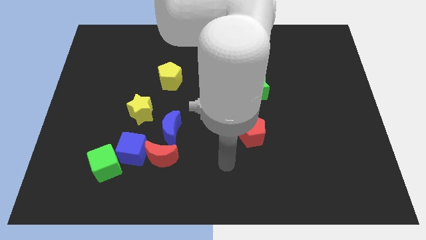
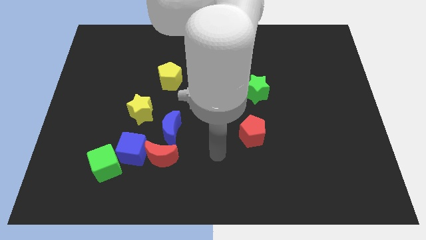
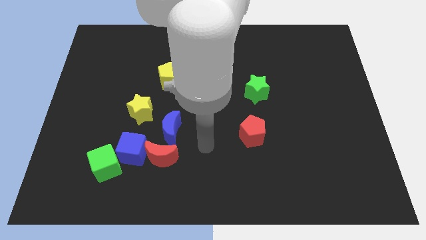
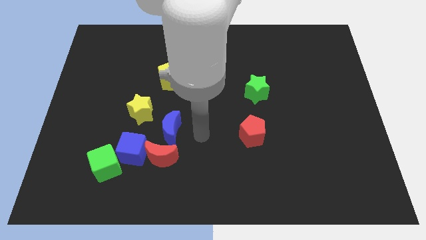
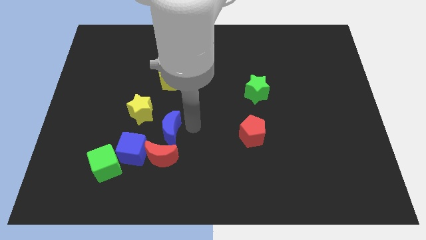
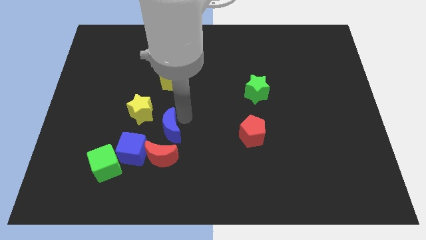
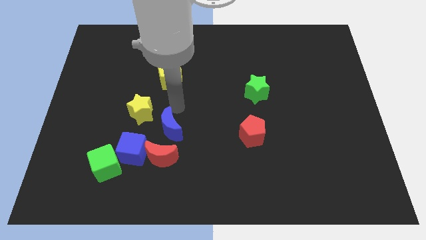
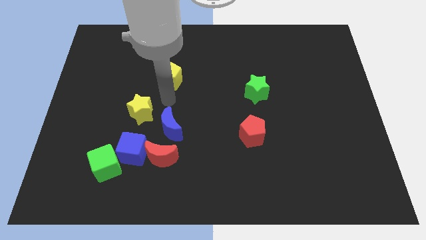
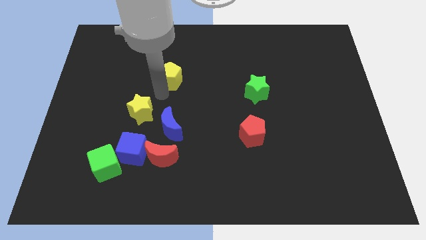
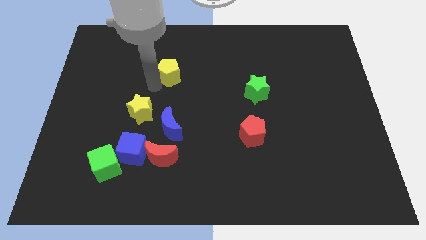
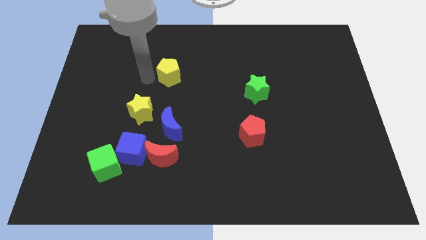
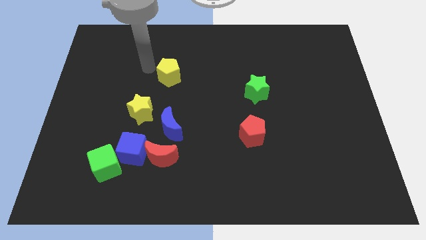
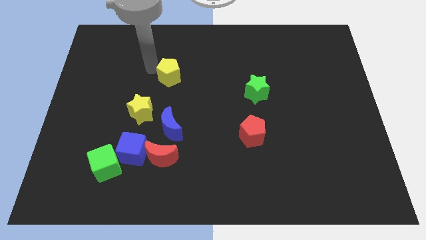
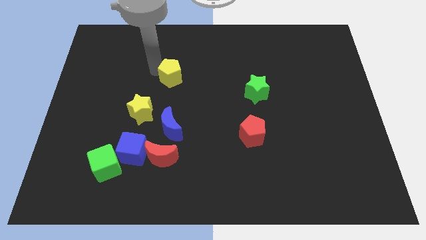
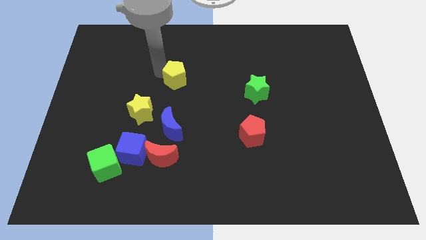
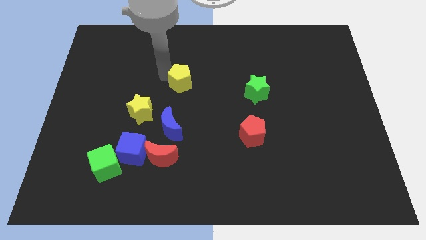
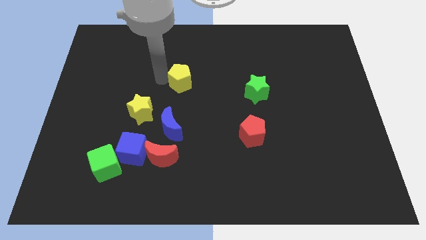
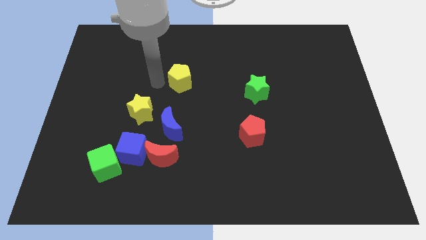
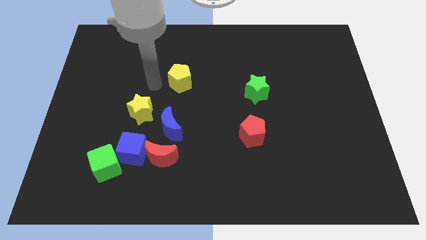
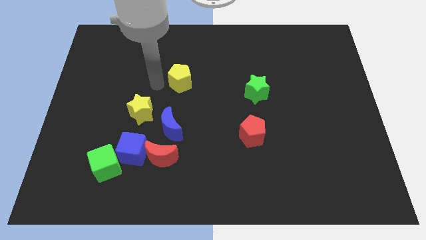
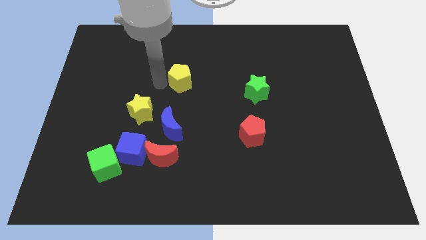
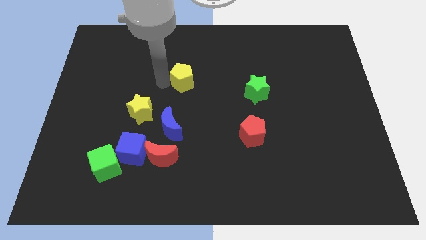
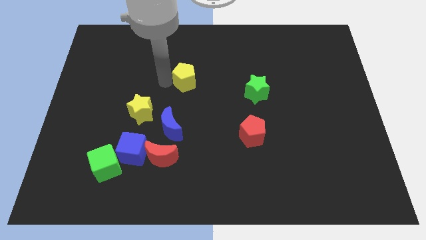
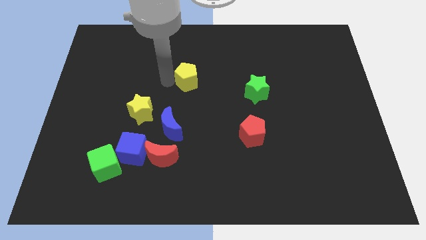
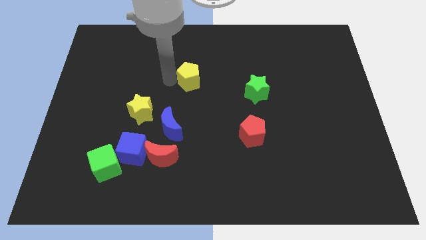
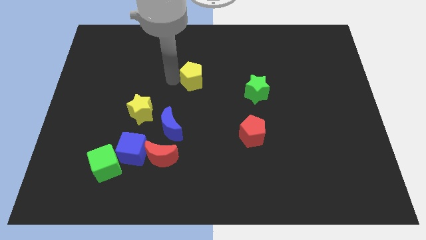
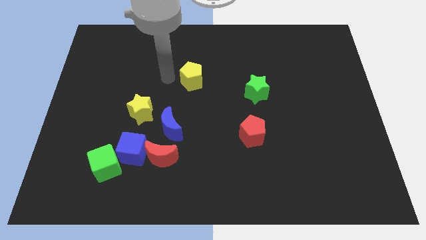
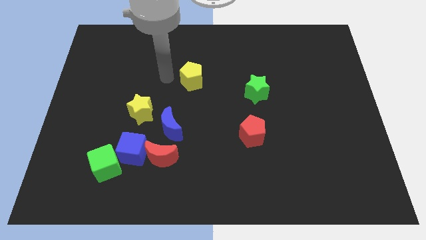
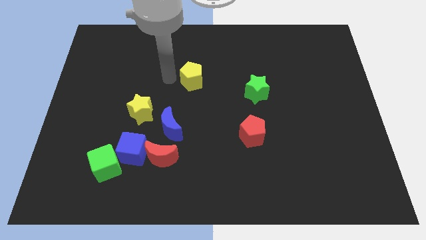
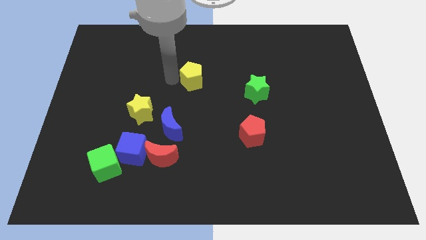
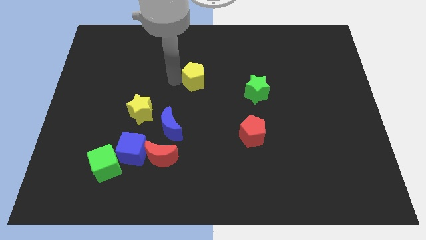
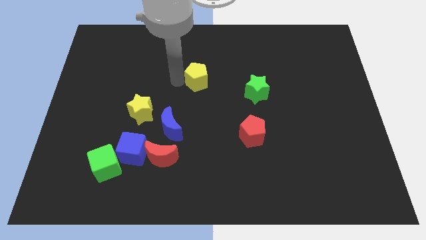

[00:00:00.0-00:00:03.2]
slightly move the yellow pentagon to the right

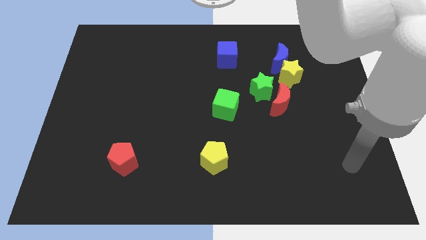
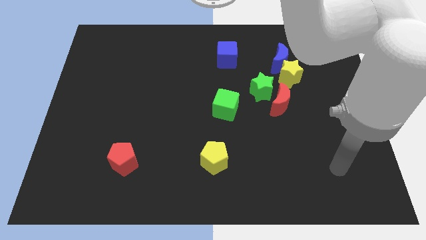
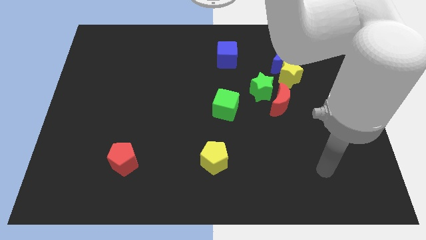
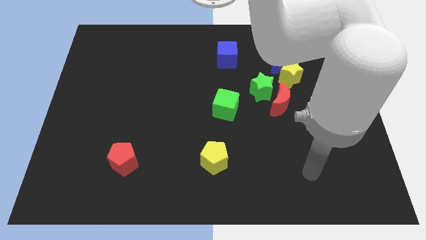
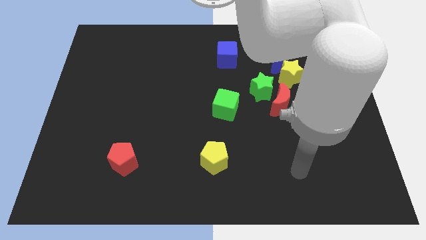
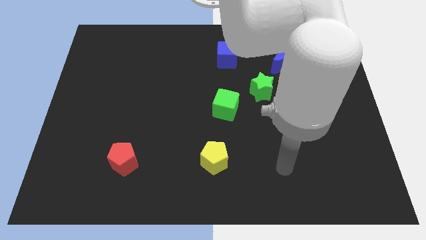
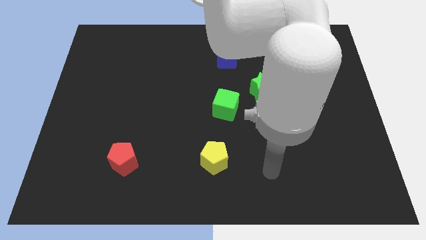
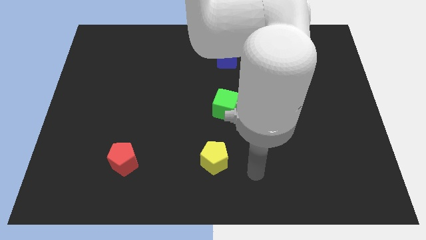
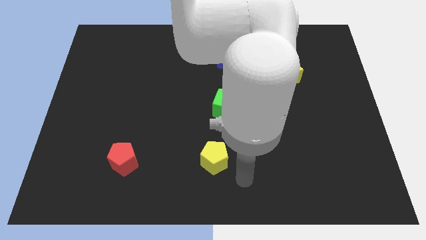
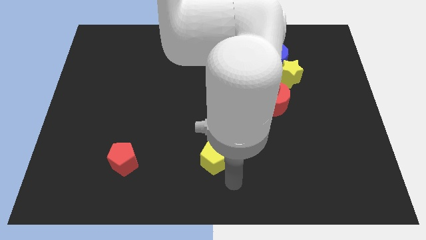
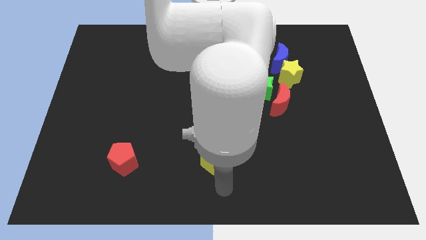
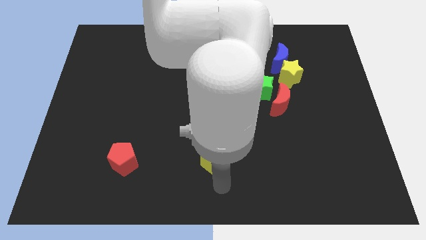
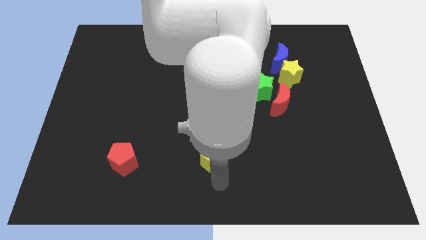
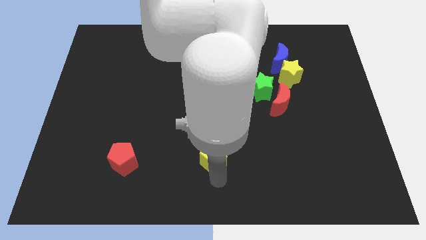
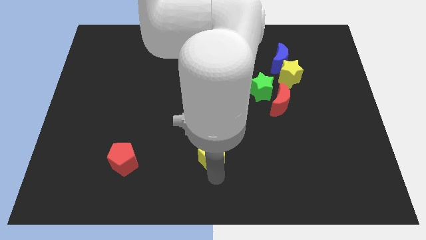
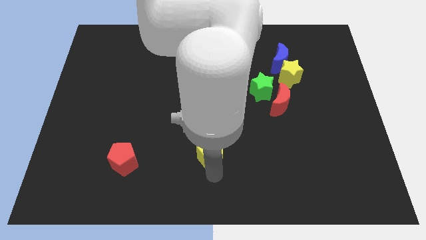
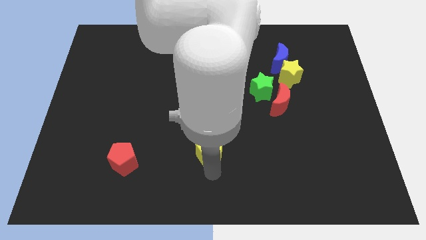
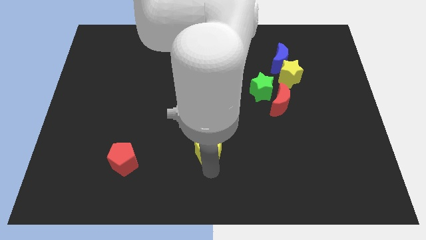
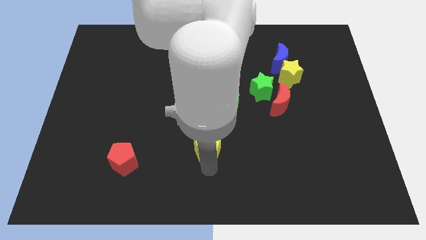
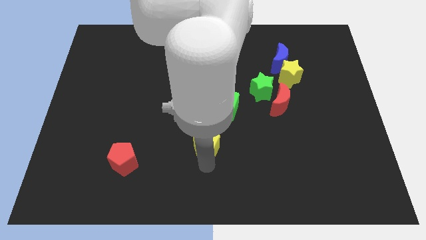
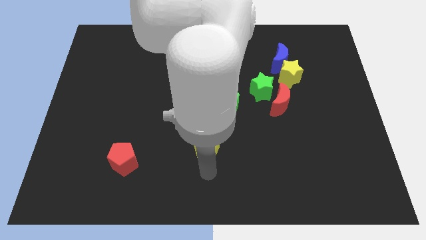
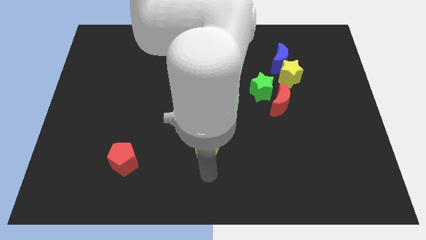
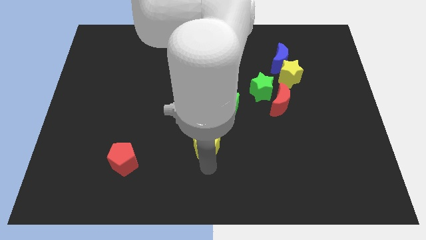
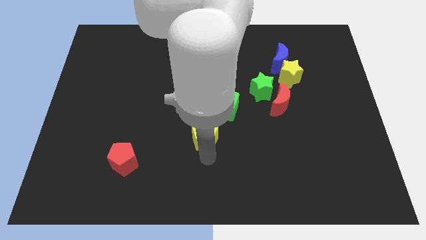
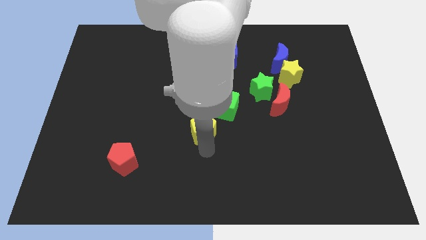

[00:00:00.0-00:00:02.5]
slide the yellow pentagon somewhat upwards

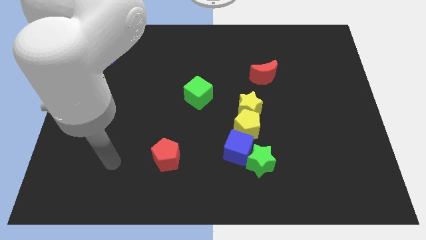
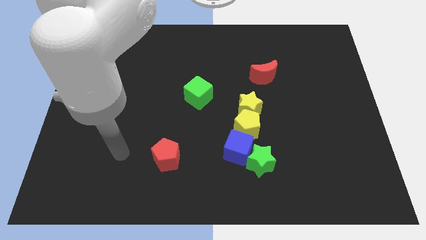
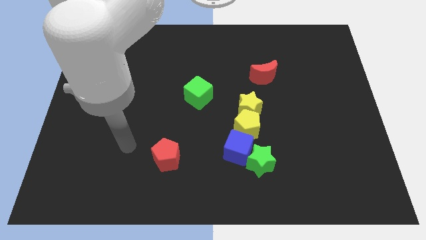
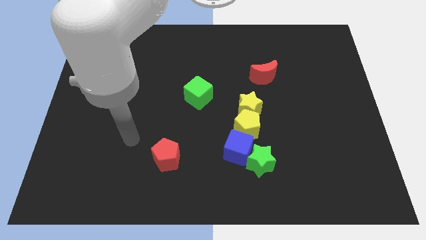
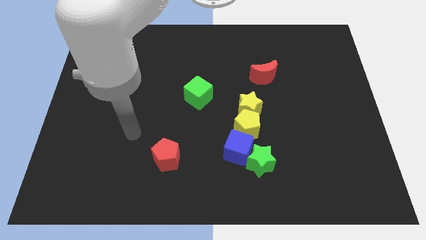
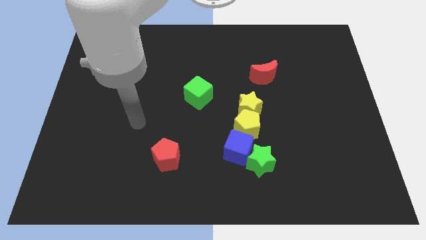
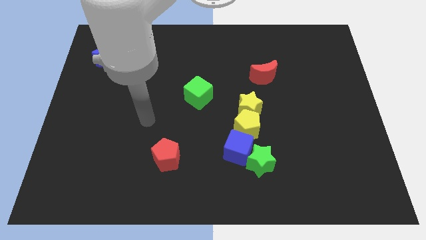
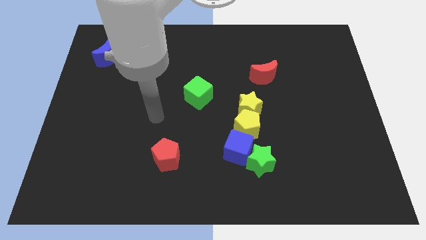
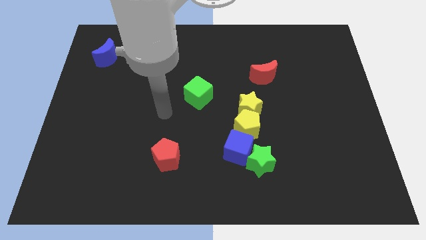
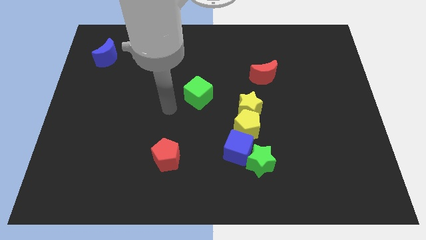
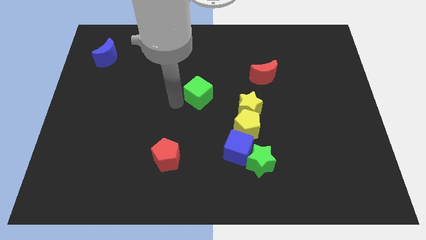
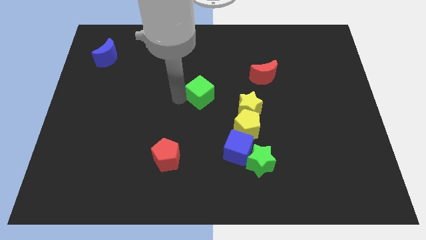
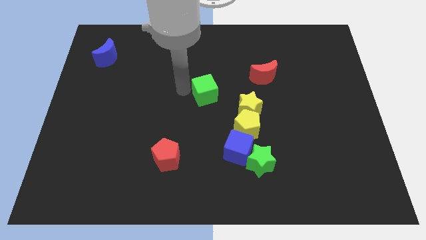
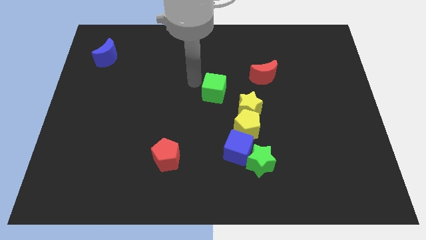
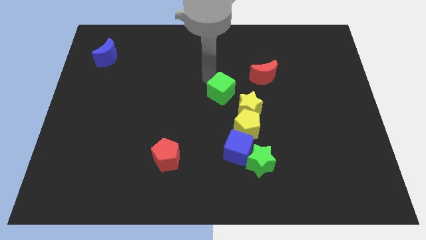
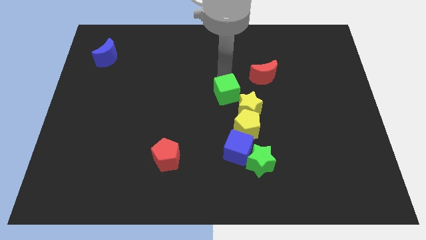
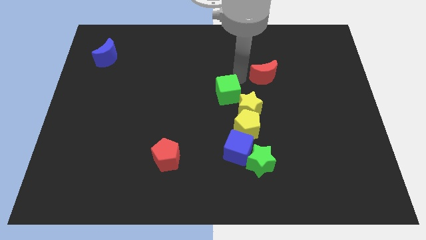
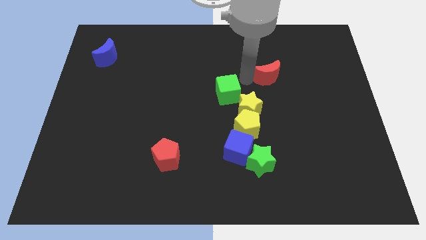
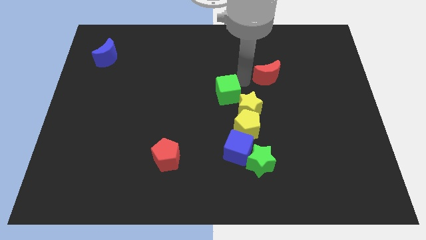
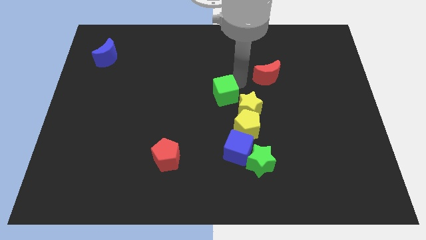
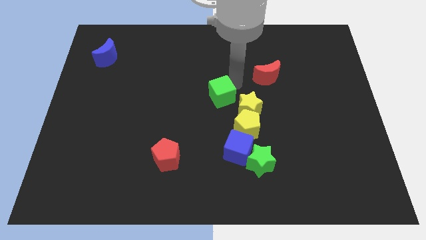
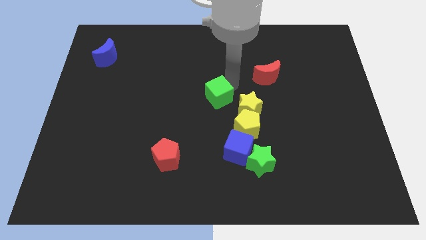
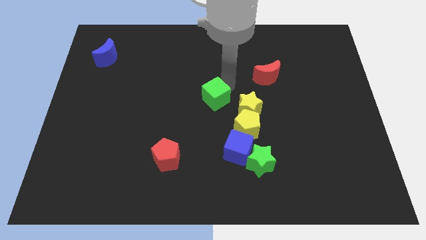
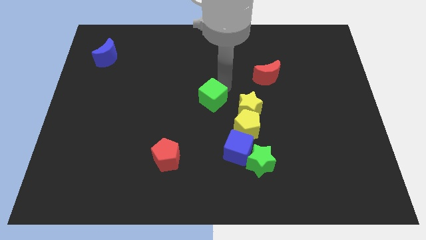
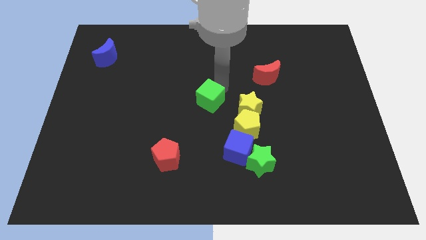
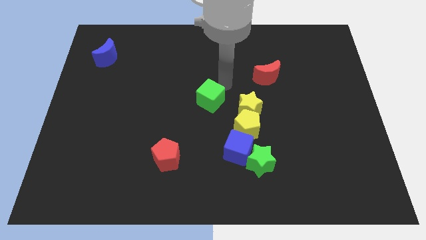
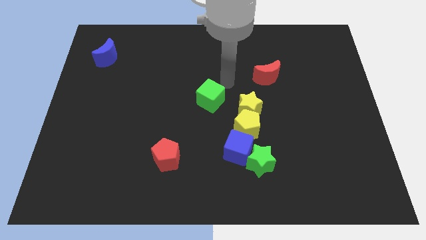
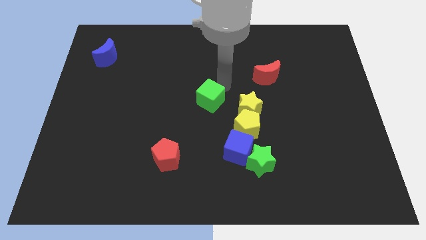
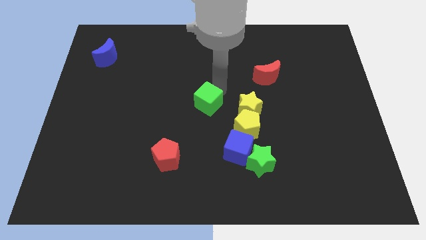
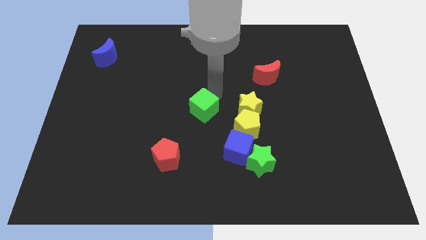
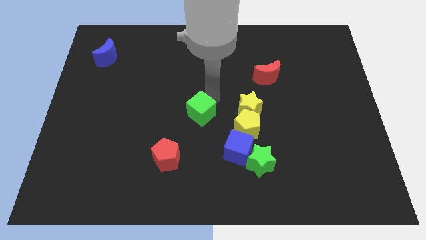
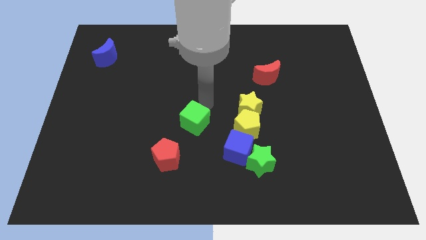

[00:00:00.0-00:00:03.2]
slightly push the green cube down
